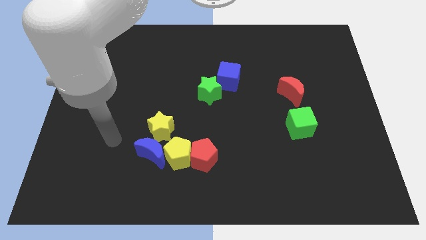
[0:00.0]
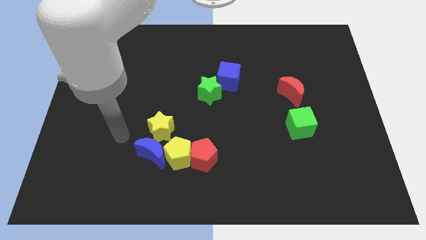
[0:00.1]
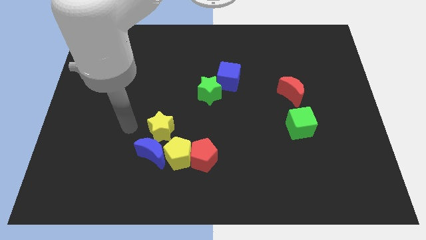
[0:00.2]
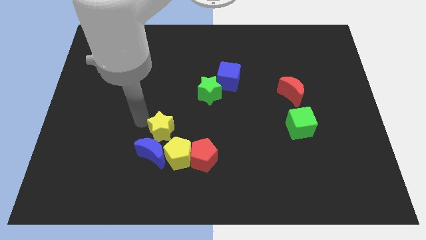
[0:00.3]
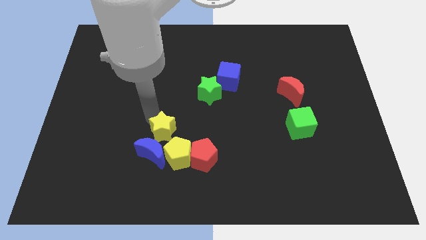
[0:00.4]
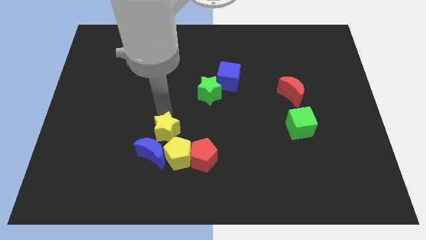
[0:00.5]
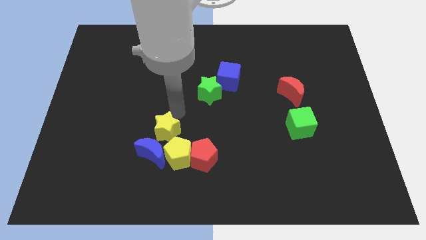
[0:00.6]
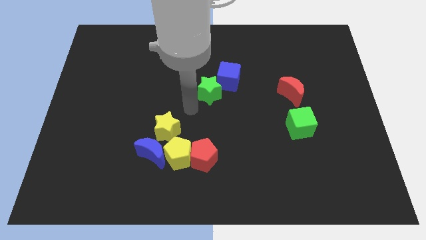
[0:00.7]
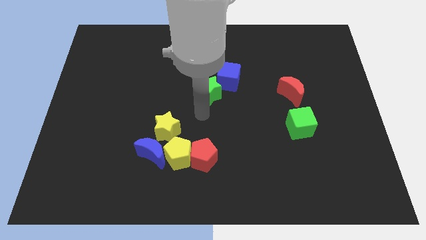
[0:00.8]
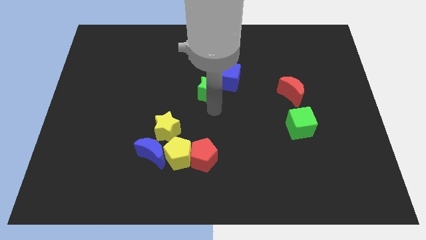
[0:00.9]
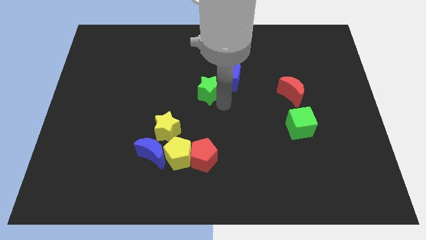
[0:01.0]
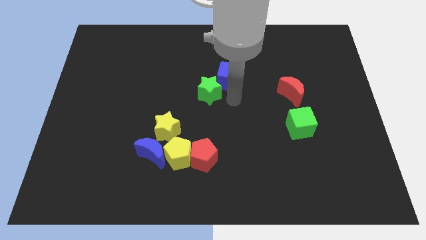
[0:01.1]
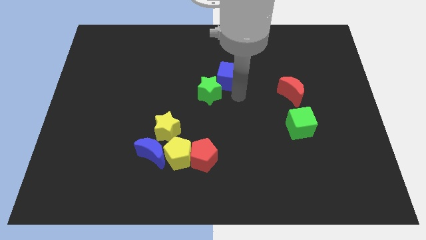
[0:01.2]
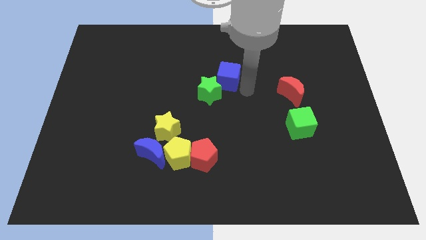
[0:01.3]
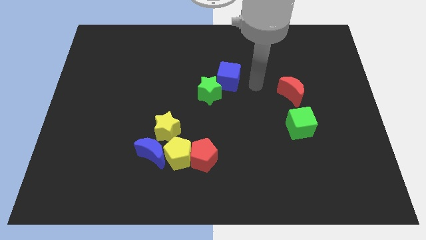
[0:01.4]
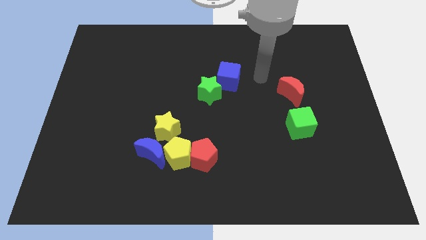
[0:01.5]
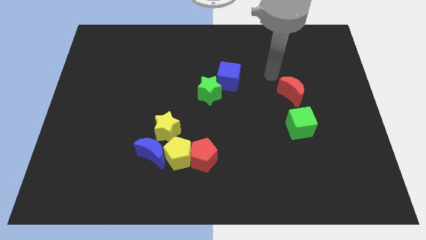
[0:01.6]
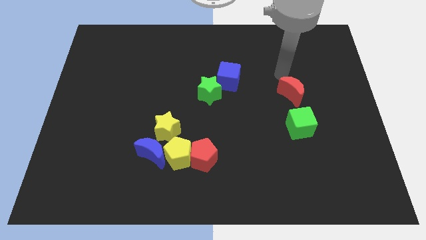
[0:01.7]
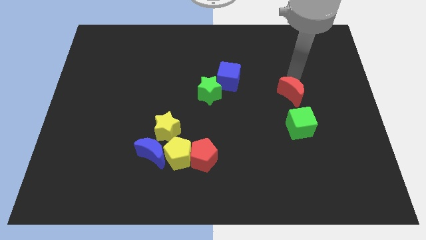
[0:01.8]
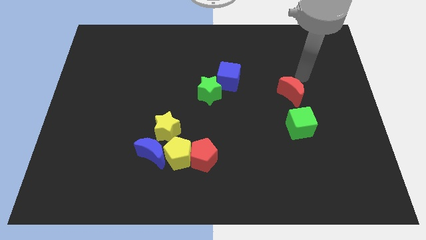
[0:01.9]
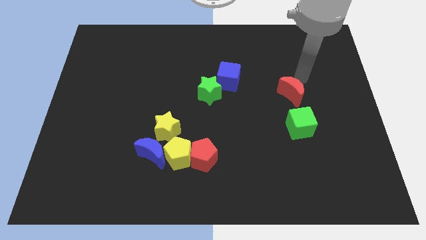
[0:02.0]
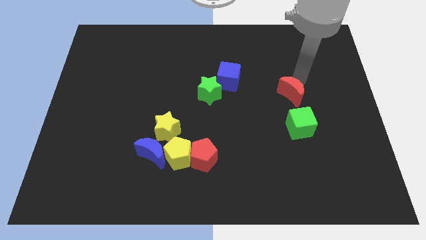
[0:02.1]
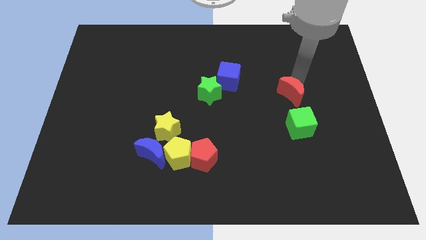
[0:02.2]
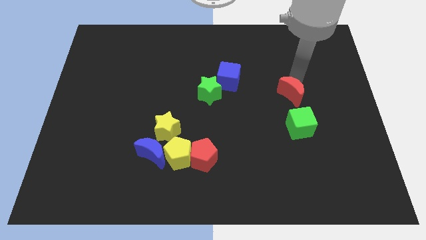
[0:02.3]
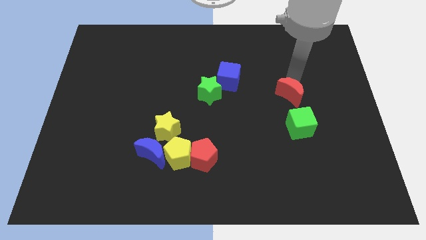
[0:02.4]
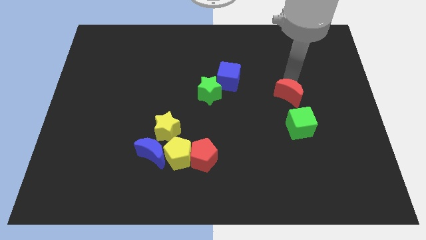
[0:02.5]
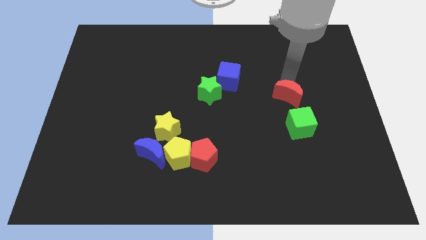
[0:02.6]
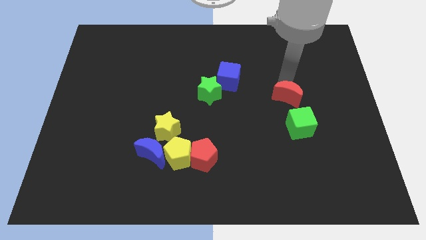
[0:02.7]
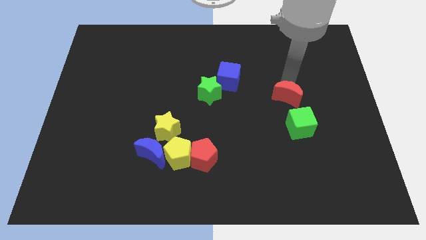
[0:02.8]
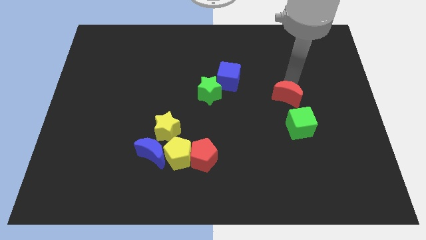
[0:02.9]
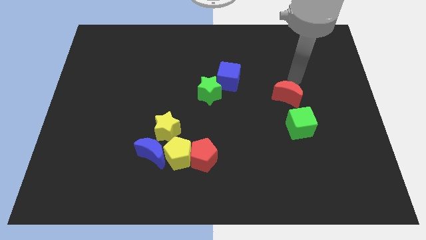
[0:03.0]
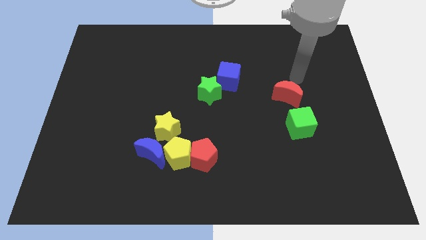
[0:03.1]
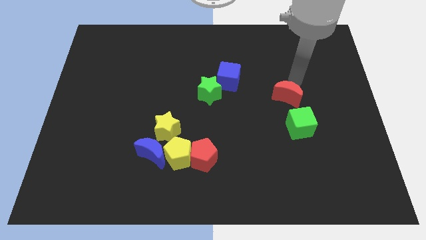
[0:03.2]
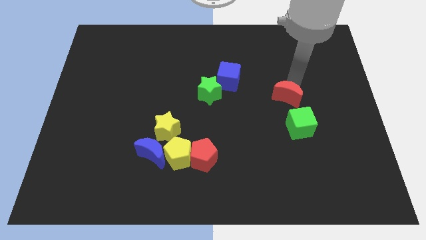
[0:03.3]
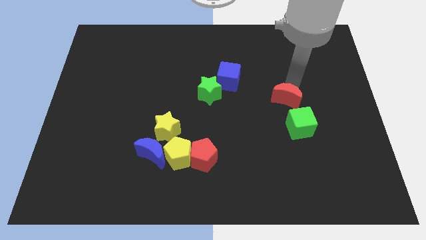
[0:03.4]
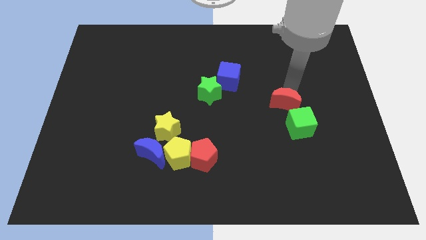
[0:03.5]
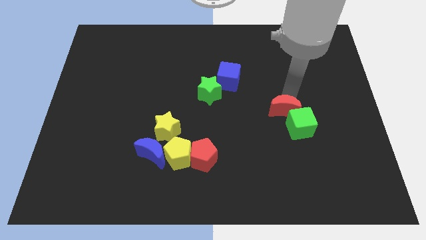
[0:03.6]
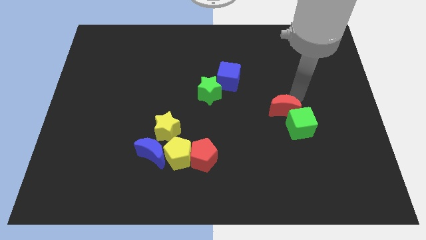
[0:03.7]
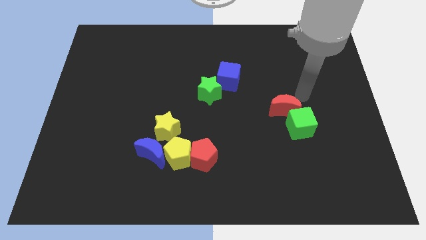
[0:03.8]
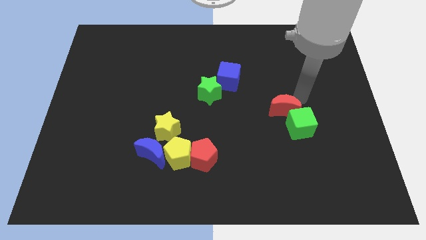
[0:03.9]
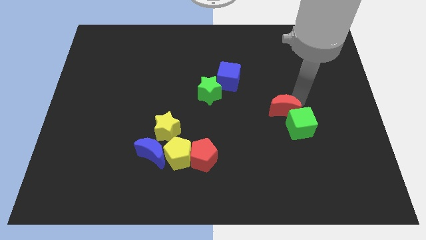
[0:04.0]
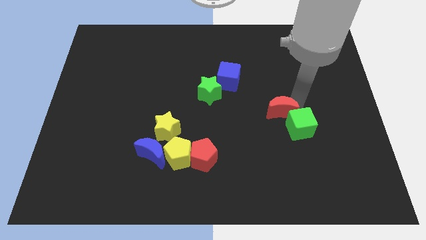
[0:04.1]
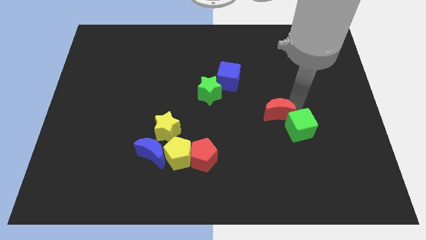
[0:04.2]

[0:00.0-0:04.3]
slide the red moon diagonally down and to the left a little

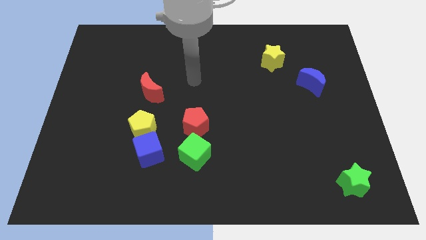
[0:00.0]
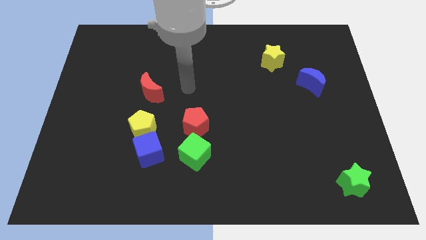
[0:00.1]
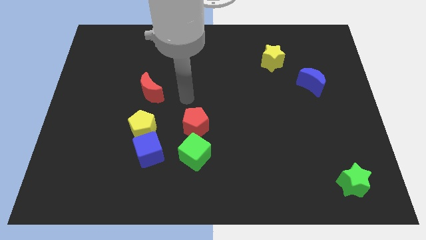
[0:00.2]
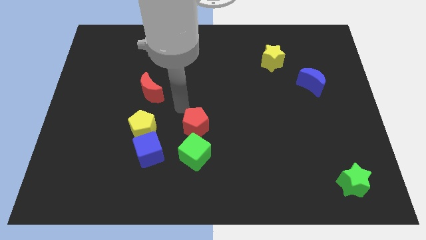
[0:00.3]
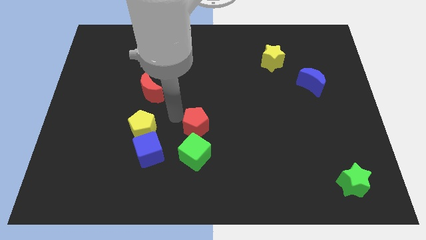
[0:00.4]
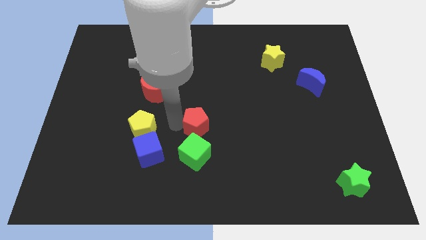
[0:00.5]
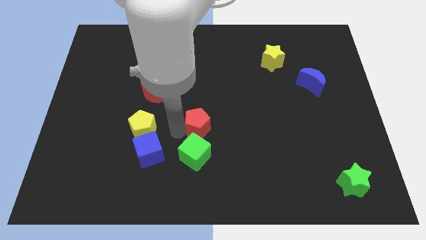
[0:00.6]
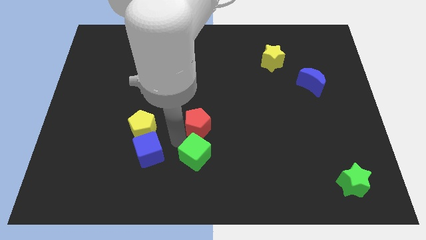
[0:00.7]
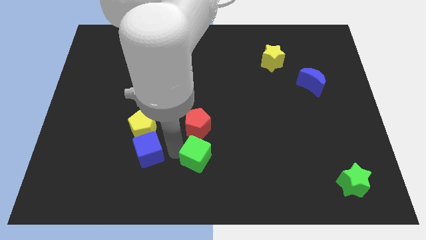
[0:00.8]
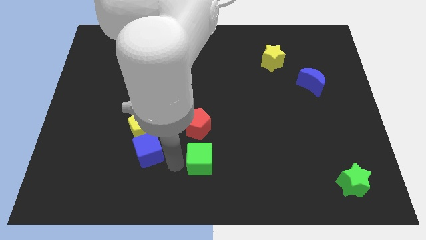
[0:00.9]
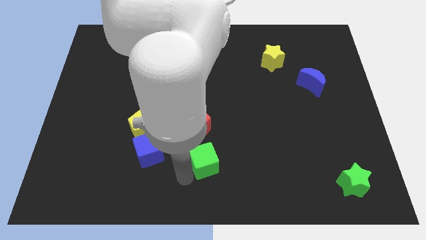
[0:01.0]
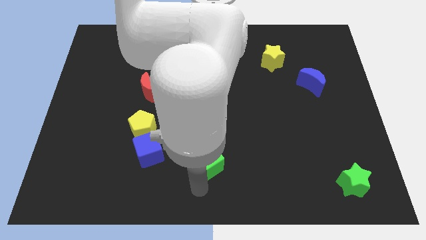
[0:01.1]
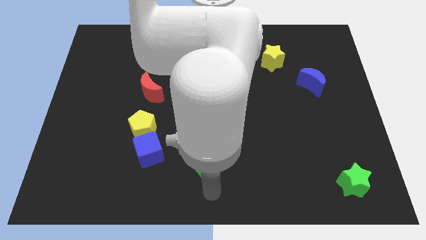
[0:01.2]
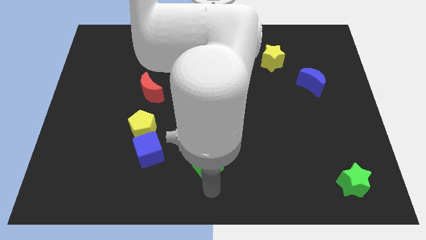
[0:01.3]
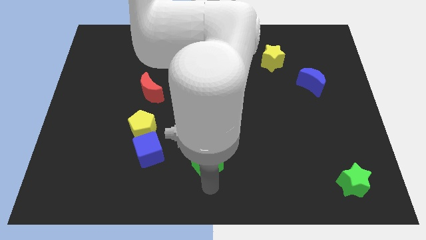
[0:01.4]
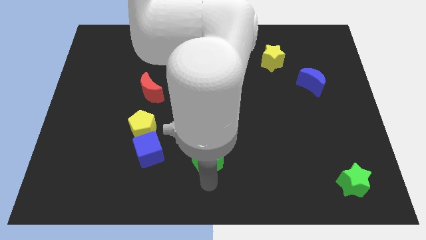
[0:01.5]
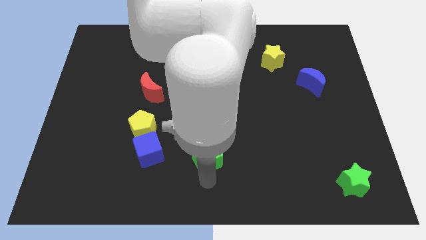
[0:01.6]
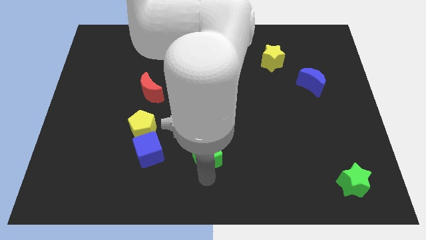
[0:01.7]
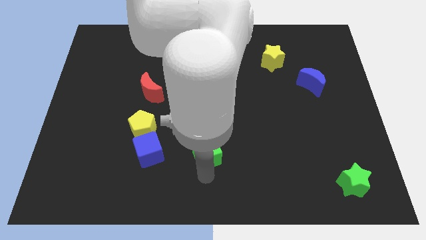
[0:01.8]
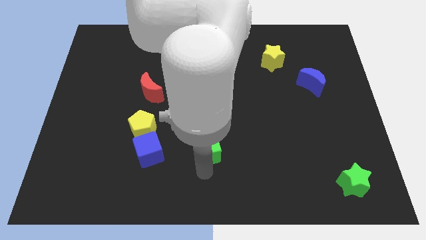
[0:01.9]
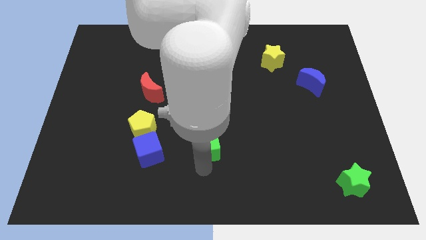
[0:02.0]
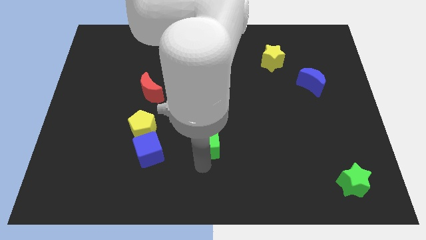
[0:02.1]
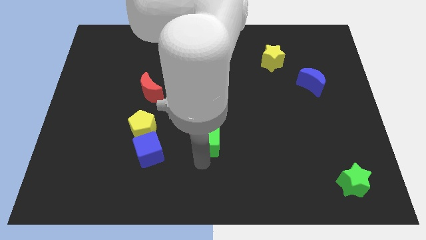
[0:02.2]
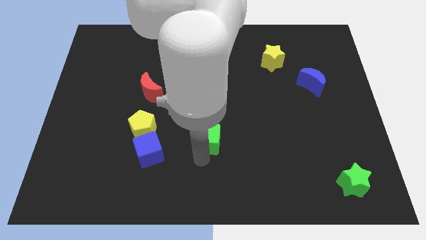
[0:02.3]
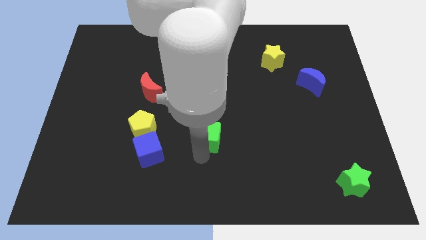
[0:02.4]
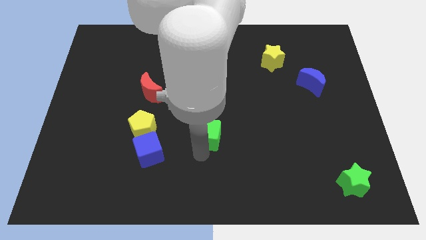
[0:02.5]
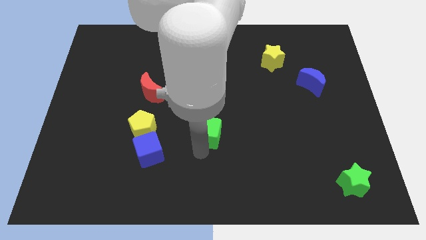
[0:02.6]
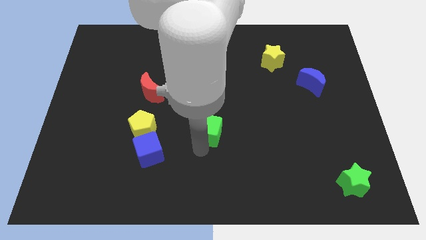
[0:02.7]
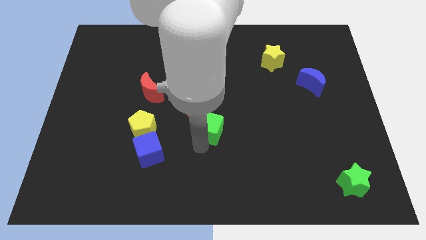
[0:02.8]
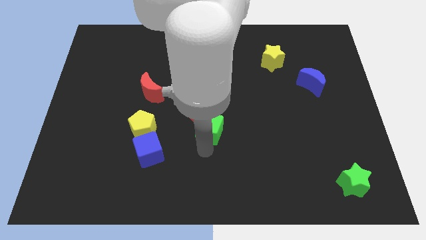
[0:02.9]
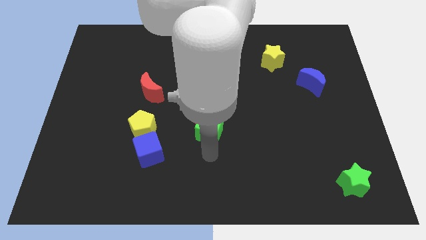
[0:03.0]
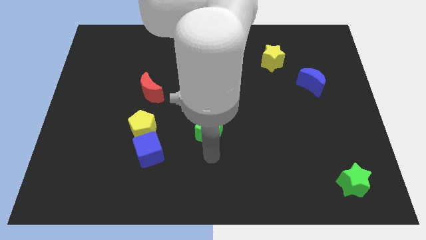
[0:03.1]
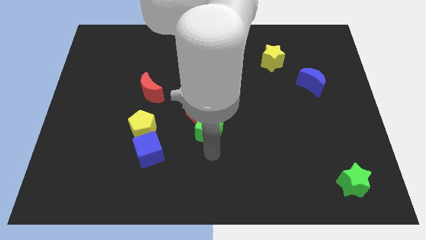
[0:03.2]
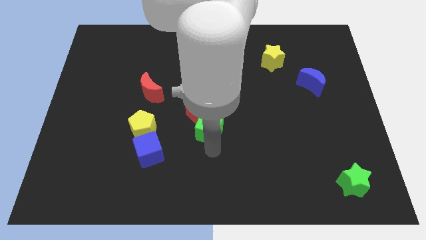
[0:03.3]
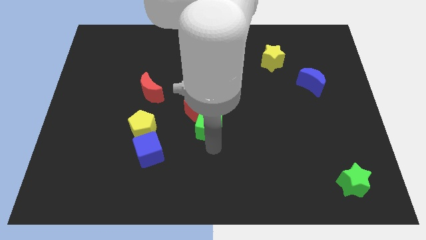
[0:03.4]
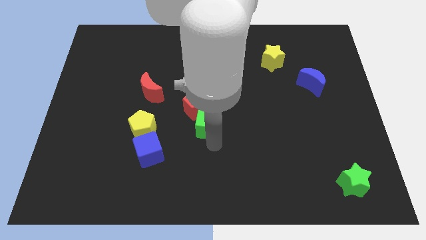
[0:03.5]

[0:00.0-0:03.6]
push the green cube a bit up
